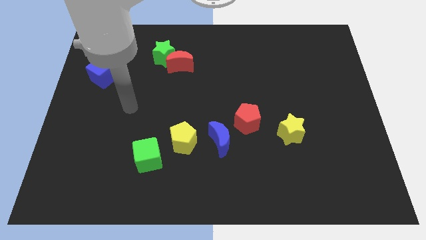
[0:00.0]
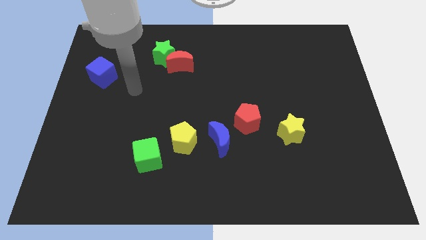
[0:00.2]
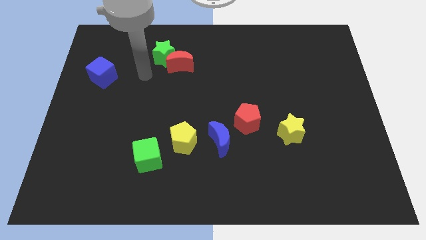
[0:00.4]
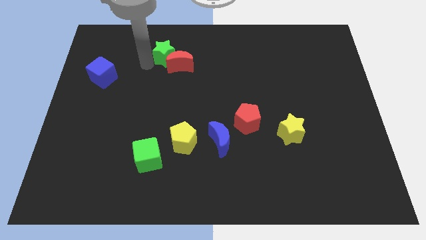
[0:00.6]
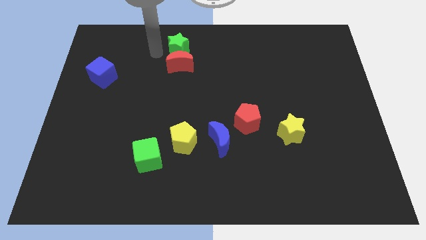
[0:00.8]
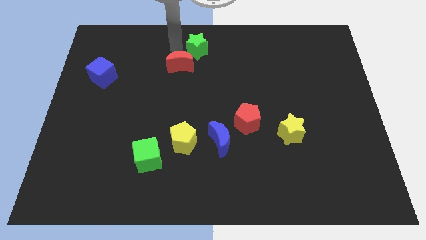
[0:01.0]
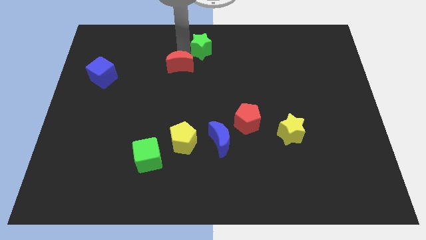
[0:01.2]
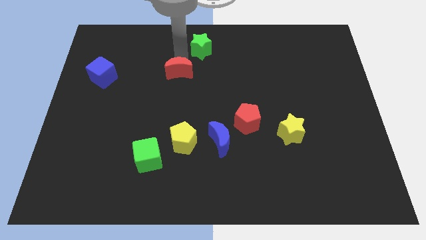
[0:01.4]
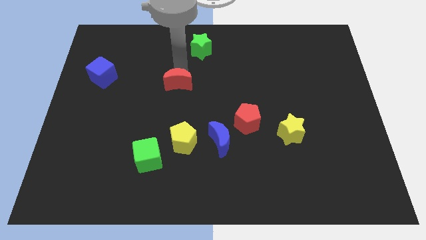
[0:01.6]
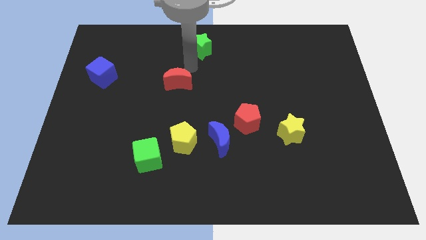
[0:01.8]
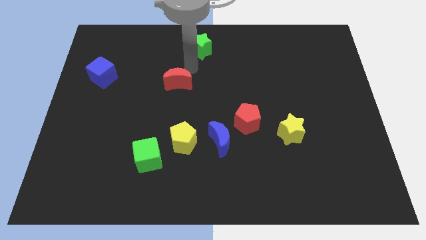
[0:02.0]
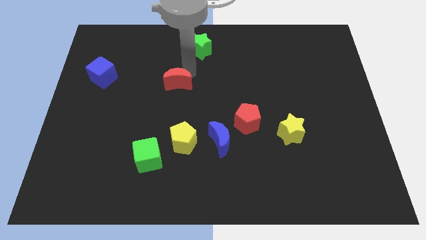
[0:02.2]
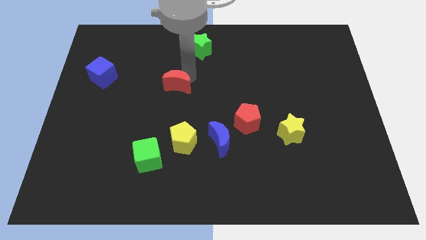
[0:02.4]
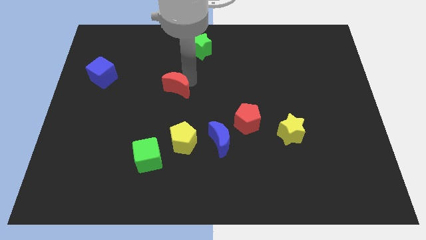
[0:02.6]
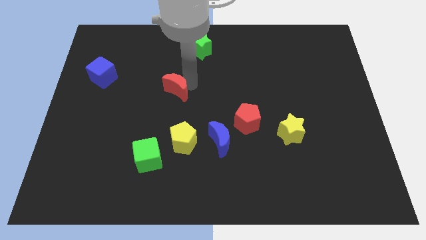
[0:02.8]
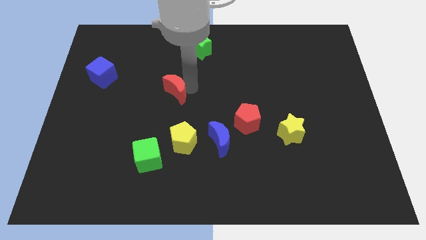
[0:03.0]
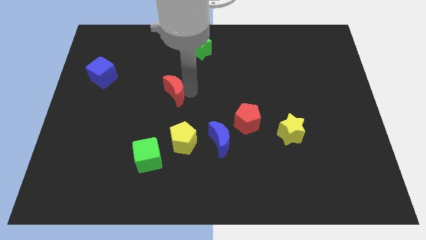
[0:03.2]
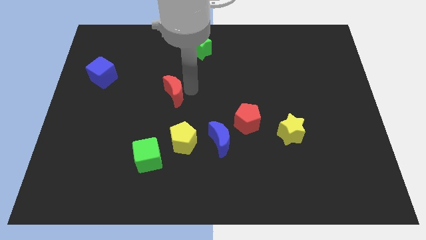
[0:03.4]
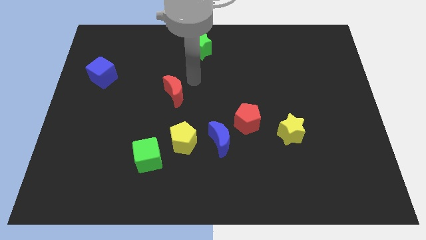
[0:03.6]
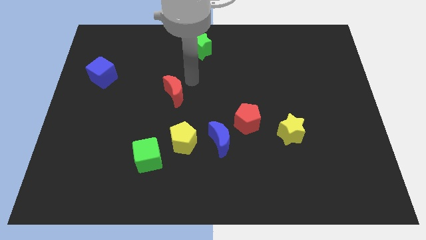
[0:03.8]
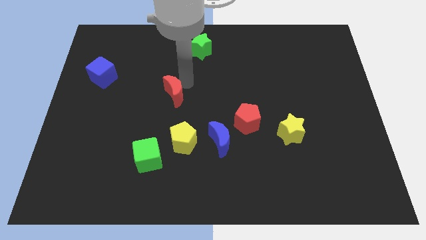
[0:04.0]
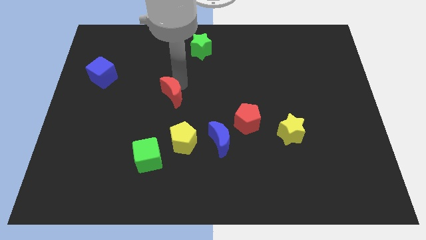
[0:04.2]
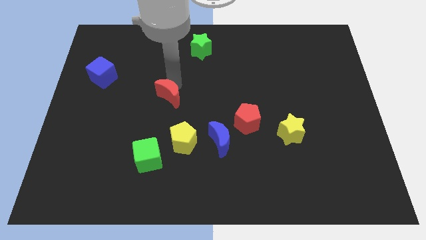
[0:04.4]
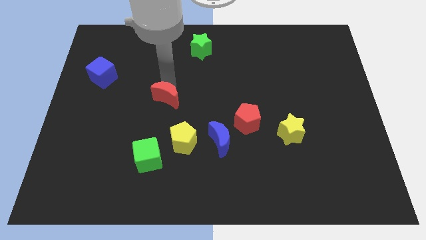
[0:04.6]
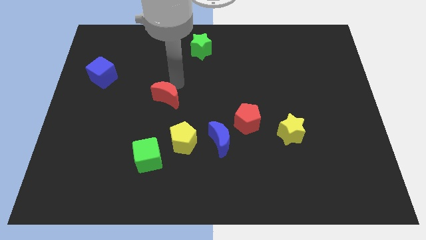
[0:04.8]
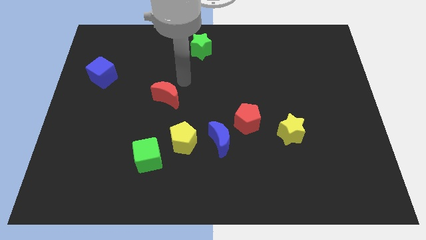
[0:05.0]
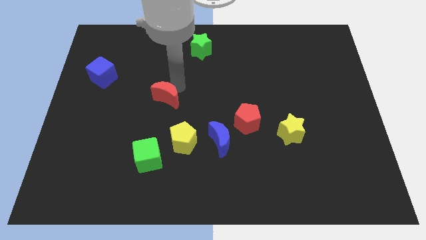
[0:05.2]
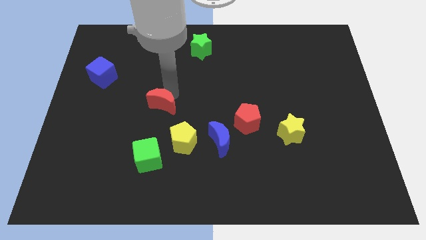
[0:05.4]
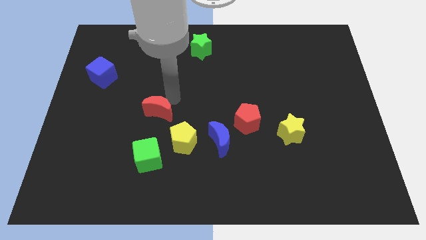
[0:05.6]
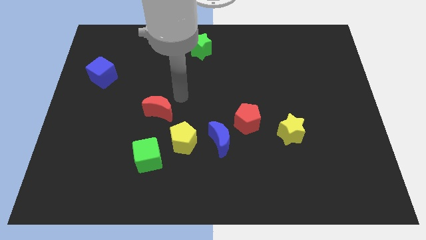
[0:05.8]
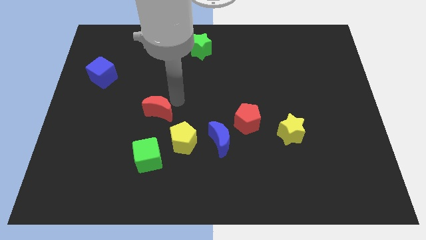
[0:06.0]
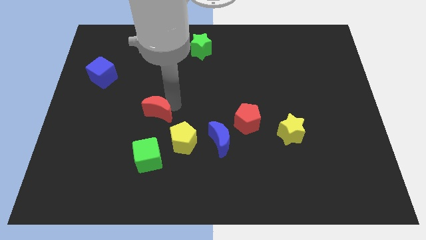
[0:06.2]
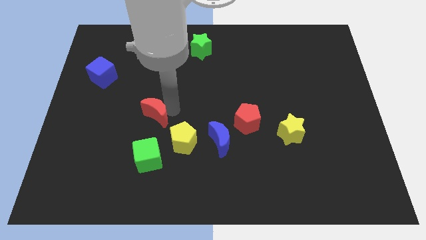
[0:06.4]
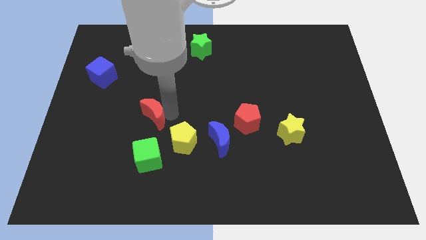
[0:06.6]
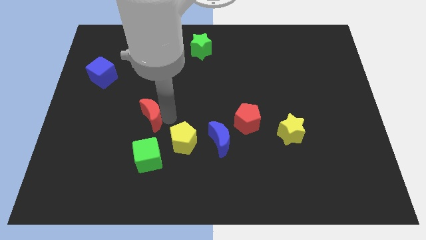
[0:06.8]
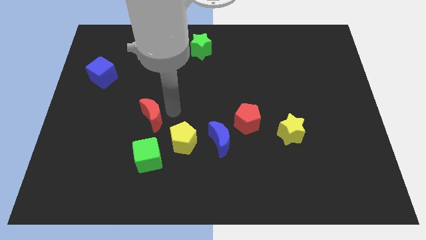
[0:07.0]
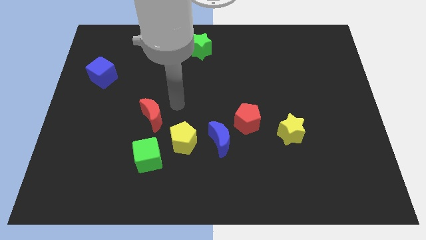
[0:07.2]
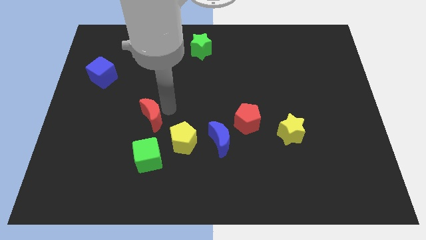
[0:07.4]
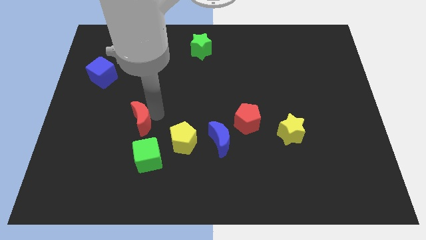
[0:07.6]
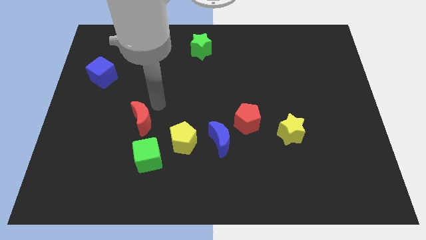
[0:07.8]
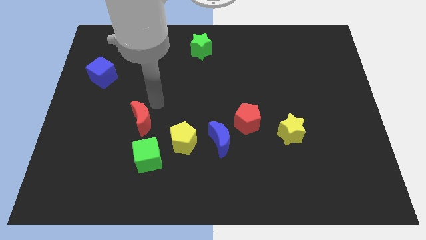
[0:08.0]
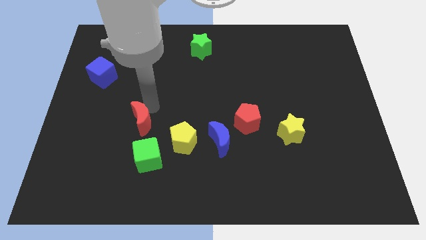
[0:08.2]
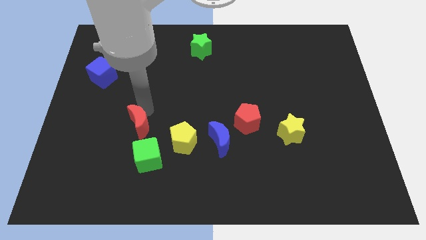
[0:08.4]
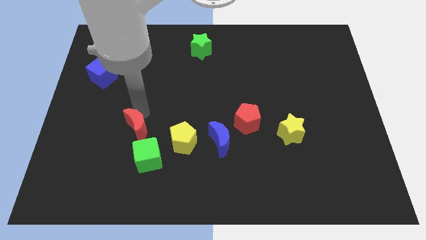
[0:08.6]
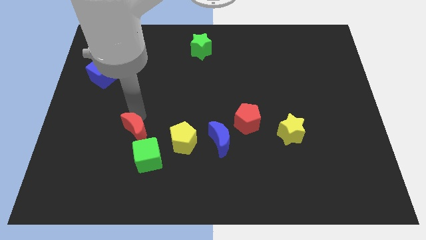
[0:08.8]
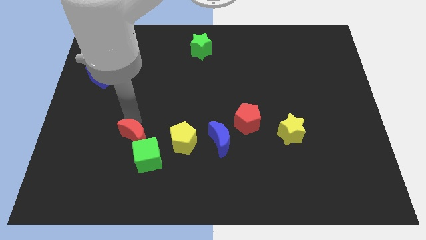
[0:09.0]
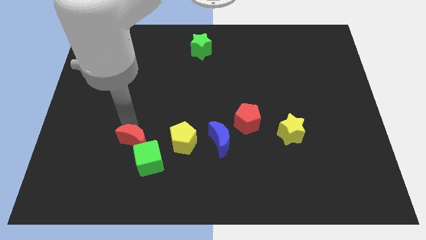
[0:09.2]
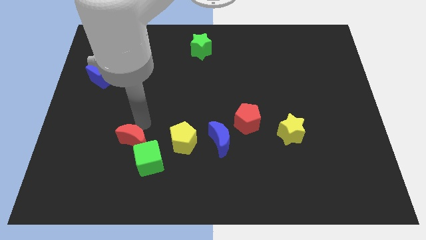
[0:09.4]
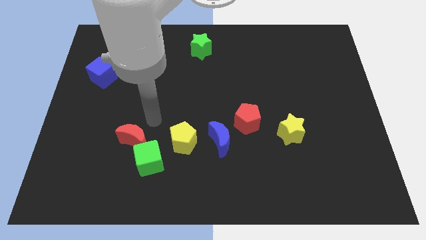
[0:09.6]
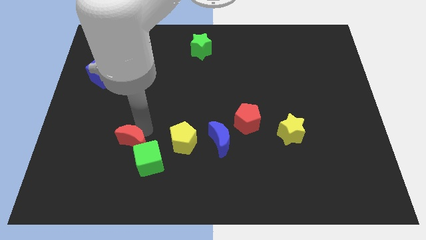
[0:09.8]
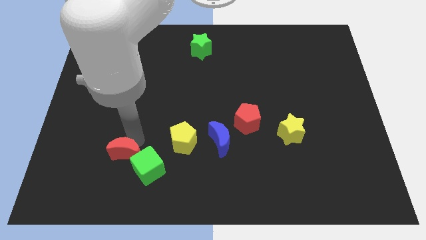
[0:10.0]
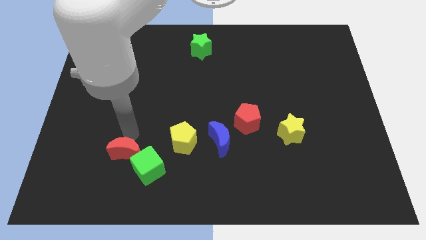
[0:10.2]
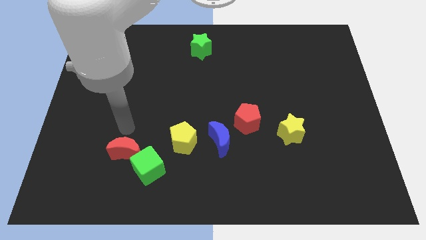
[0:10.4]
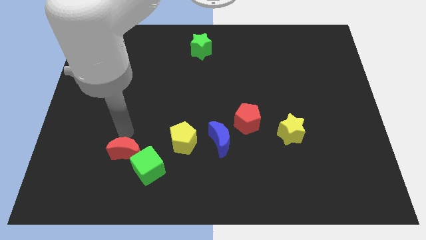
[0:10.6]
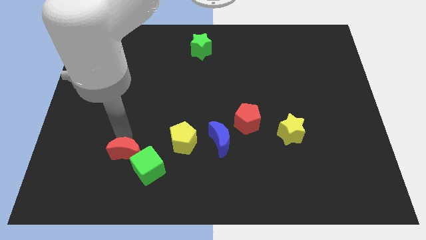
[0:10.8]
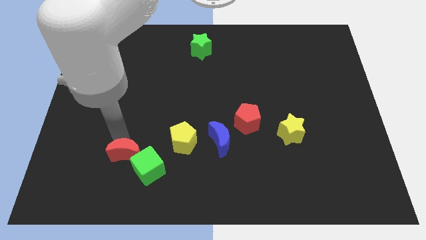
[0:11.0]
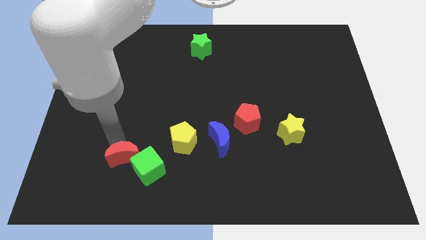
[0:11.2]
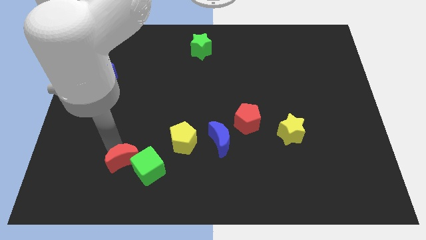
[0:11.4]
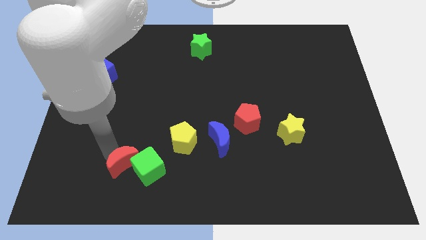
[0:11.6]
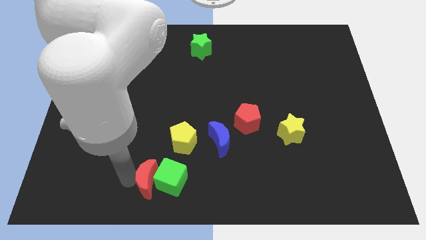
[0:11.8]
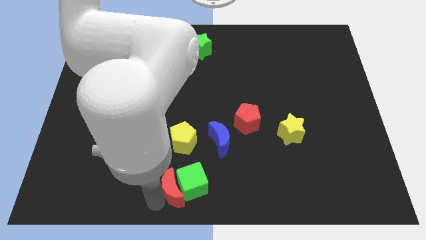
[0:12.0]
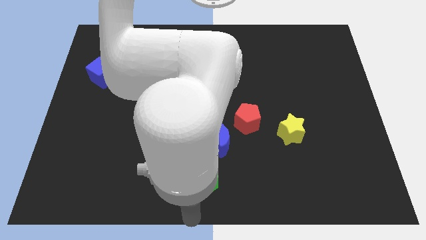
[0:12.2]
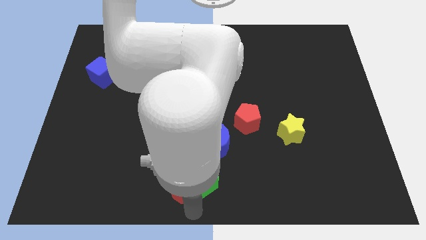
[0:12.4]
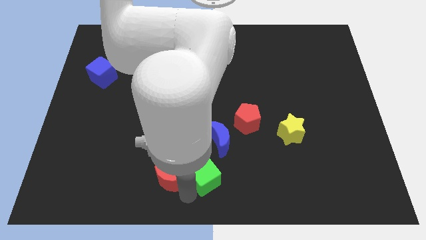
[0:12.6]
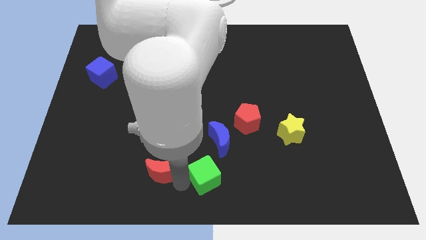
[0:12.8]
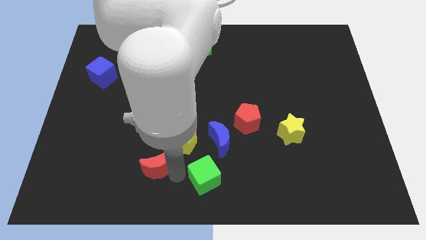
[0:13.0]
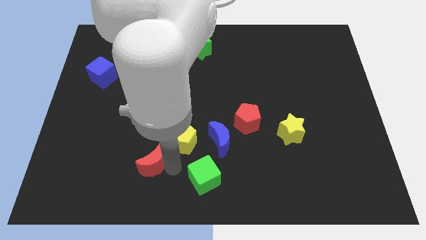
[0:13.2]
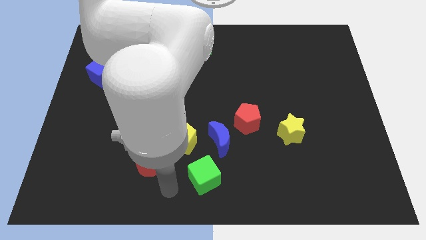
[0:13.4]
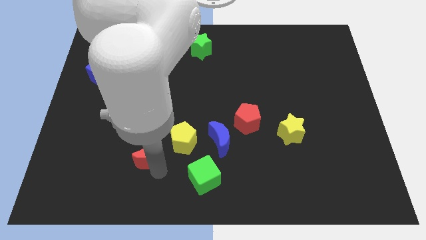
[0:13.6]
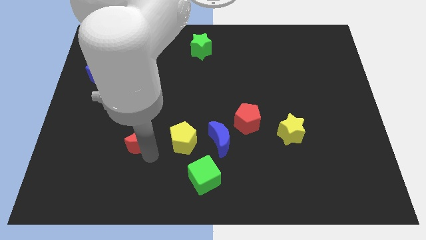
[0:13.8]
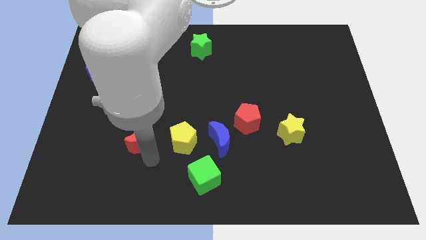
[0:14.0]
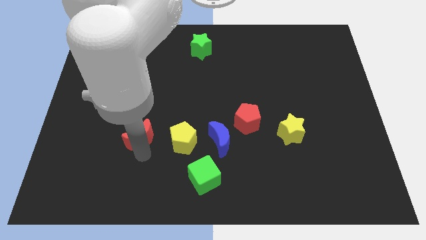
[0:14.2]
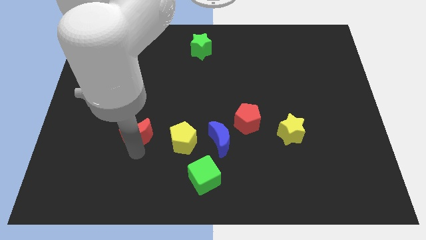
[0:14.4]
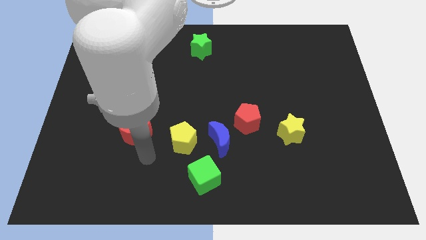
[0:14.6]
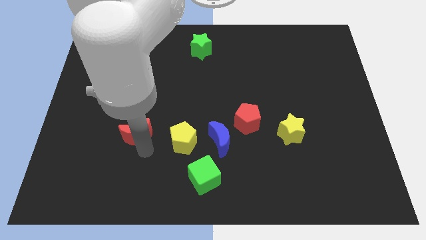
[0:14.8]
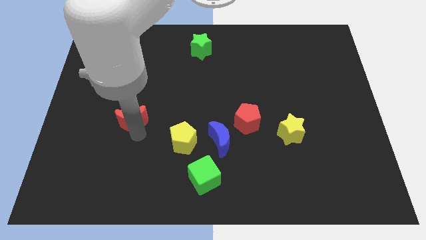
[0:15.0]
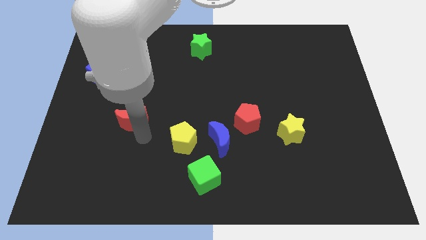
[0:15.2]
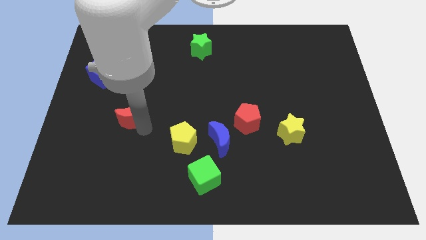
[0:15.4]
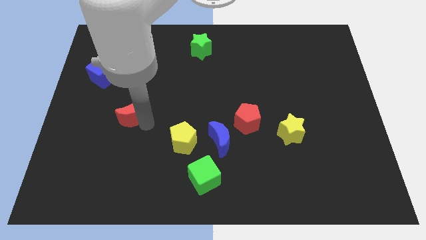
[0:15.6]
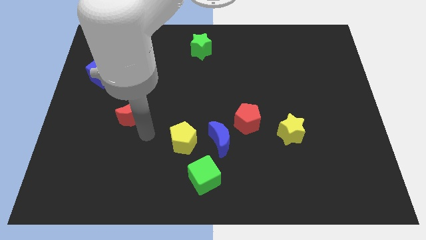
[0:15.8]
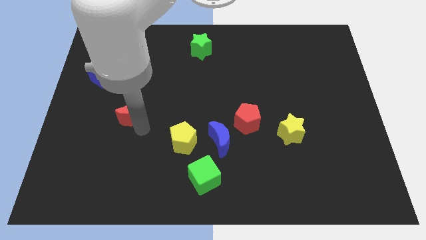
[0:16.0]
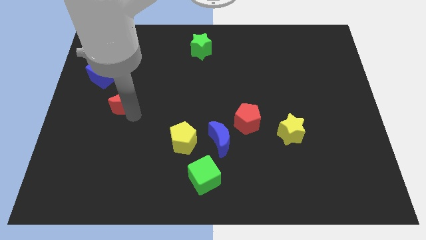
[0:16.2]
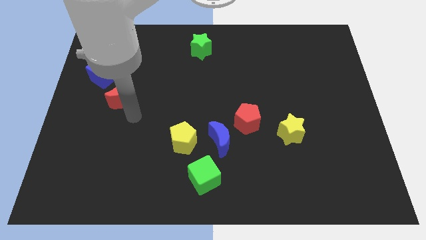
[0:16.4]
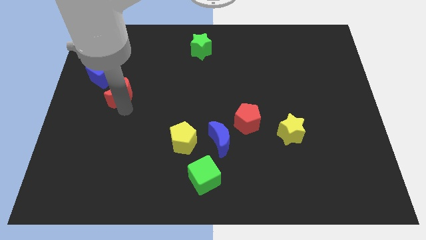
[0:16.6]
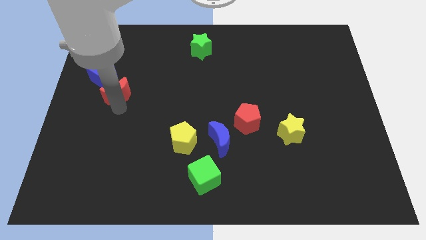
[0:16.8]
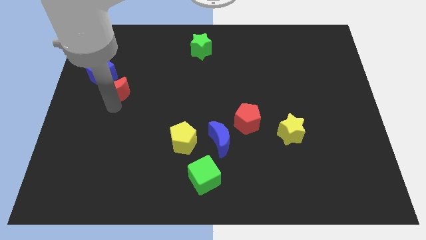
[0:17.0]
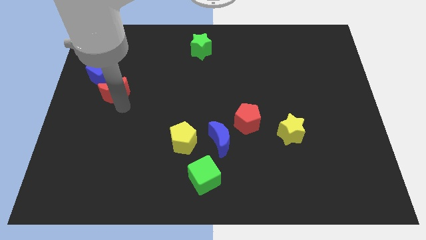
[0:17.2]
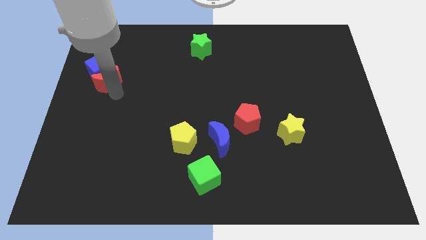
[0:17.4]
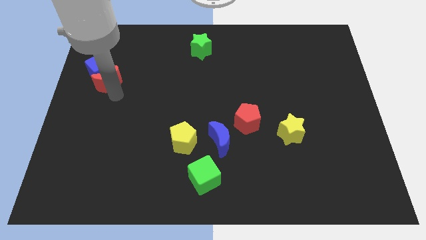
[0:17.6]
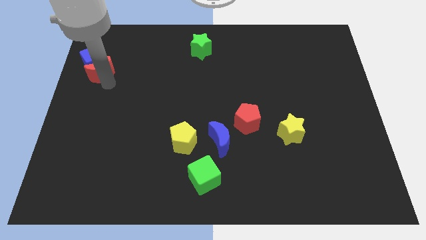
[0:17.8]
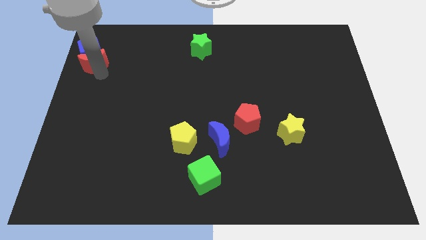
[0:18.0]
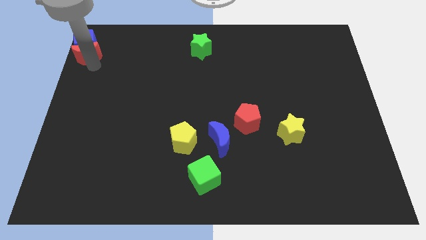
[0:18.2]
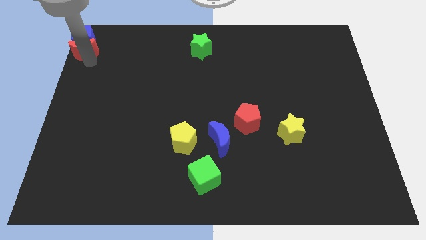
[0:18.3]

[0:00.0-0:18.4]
put the red moon to the upper left corner
